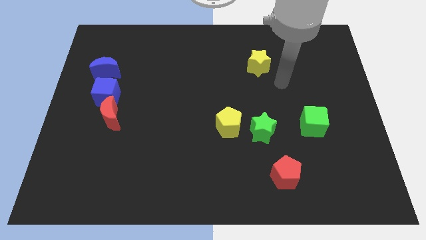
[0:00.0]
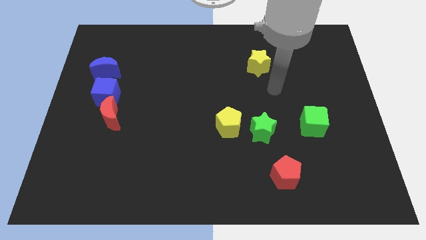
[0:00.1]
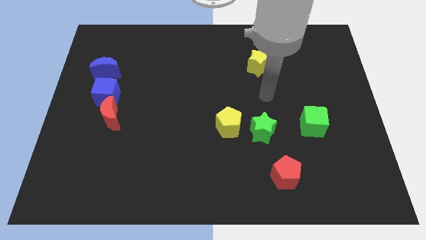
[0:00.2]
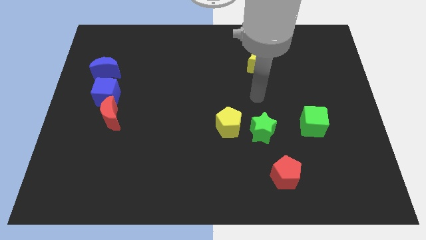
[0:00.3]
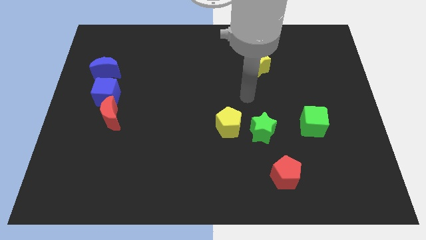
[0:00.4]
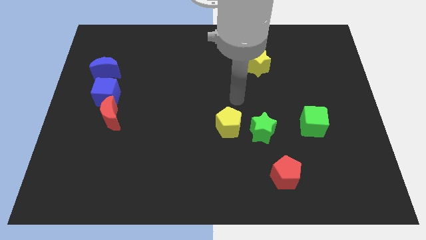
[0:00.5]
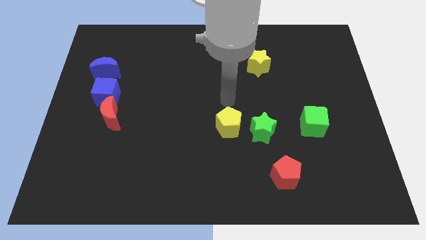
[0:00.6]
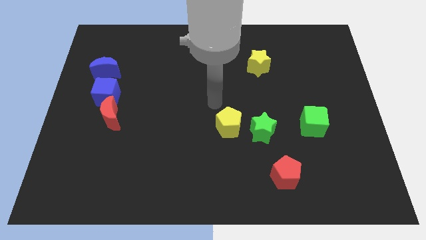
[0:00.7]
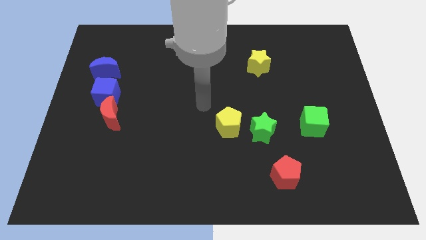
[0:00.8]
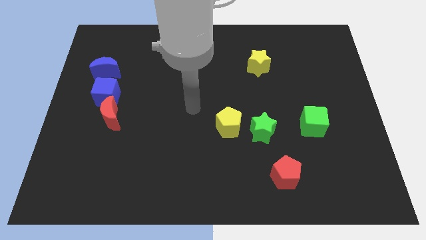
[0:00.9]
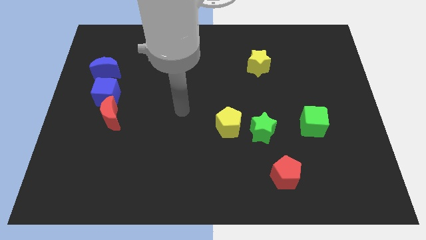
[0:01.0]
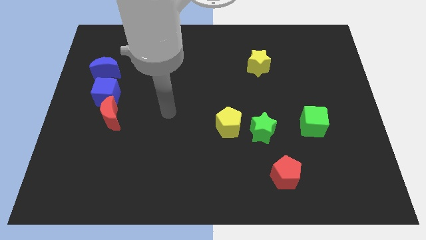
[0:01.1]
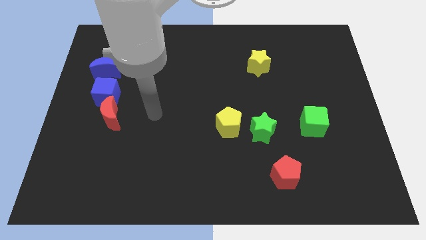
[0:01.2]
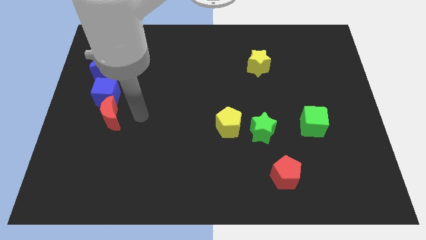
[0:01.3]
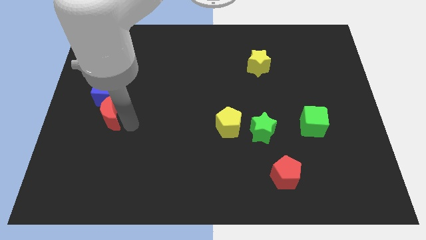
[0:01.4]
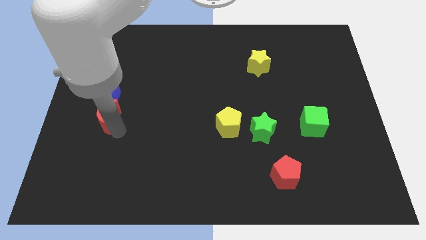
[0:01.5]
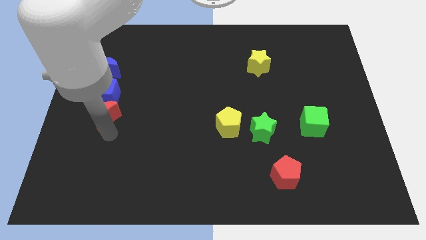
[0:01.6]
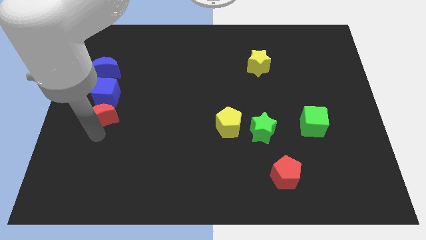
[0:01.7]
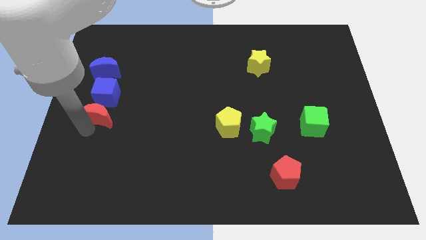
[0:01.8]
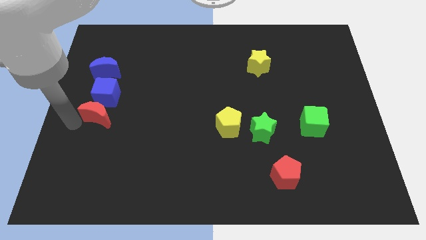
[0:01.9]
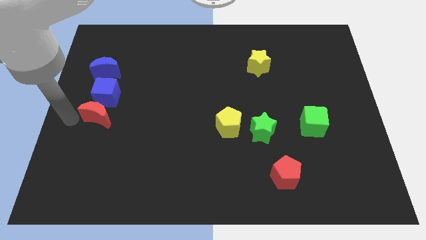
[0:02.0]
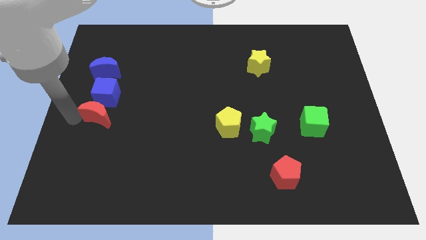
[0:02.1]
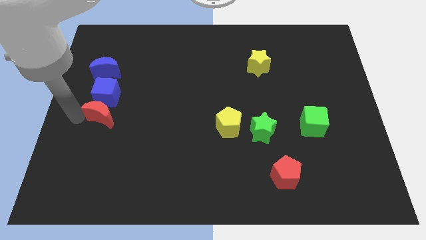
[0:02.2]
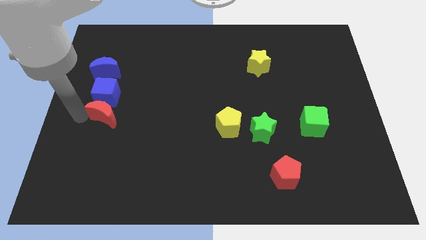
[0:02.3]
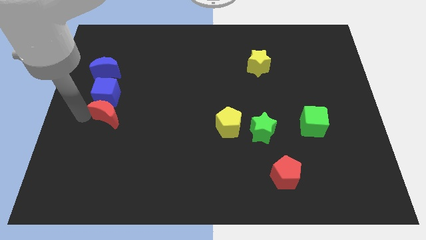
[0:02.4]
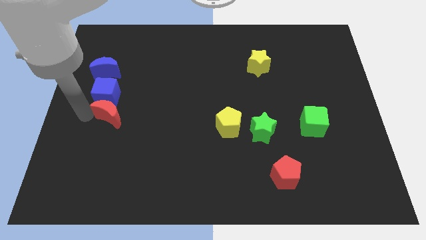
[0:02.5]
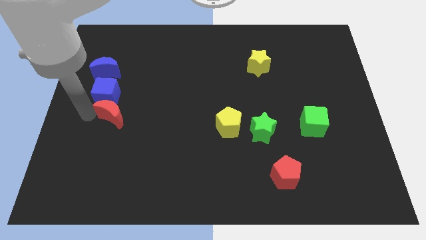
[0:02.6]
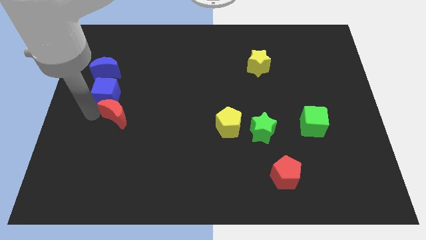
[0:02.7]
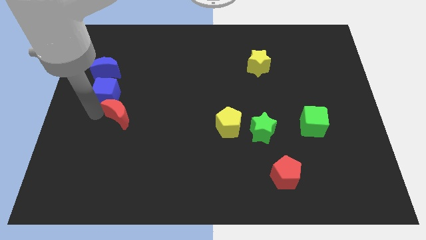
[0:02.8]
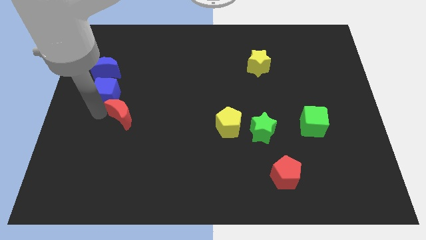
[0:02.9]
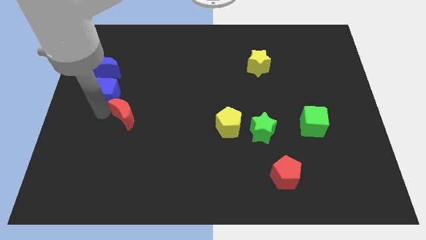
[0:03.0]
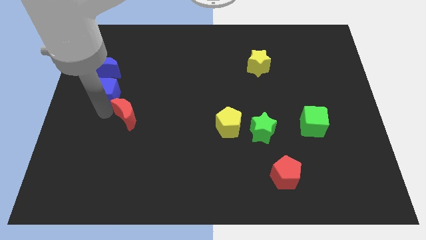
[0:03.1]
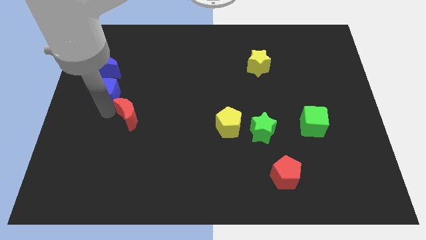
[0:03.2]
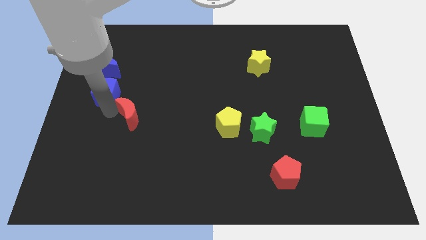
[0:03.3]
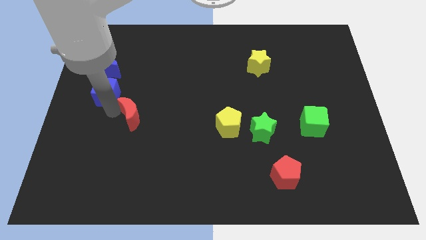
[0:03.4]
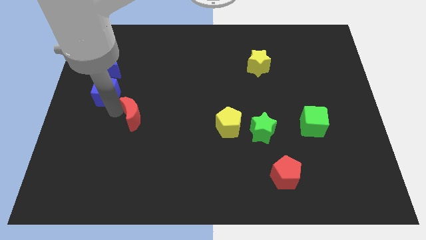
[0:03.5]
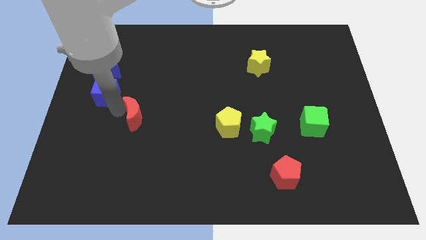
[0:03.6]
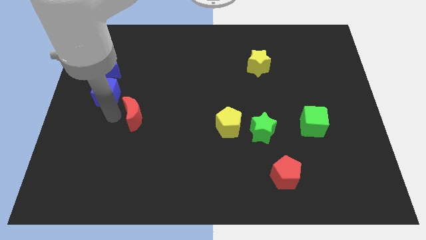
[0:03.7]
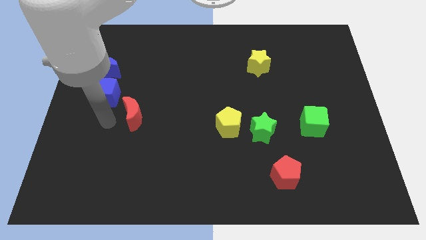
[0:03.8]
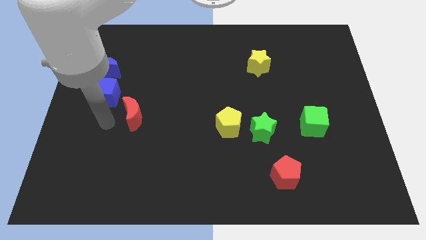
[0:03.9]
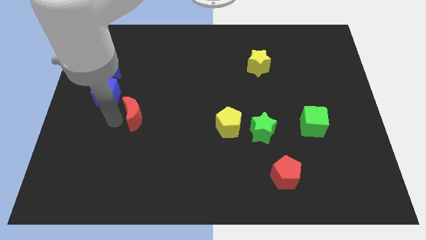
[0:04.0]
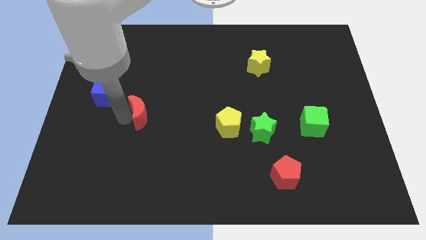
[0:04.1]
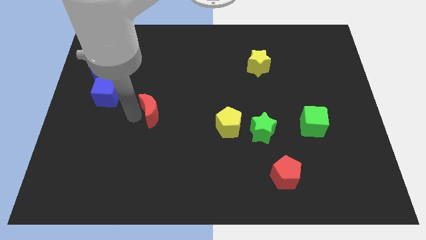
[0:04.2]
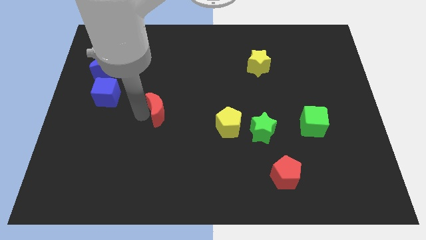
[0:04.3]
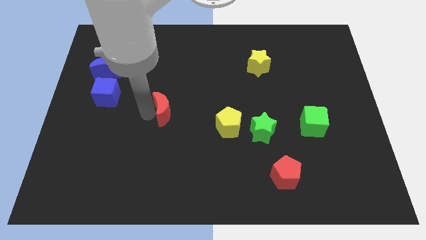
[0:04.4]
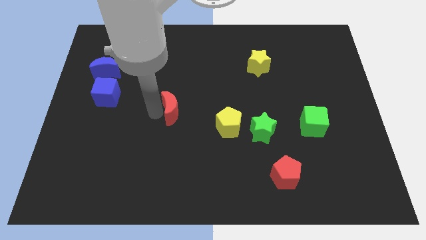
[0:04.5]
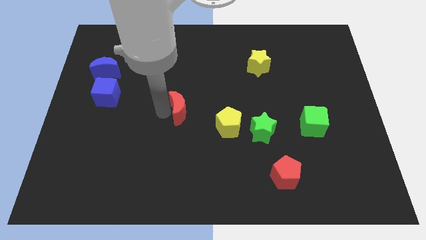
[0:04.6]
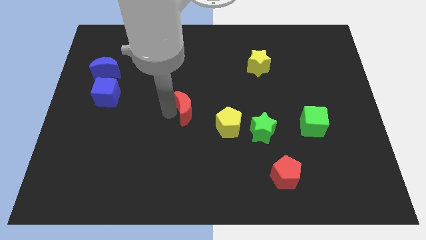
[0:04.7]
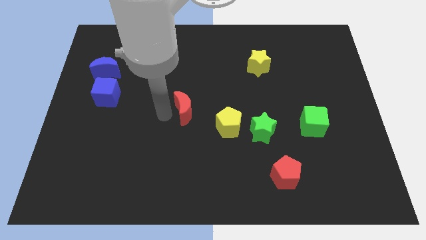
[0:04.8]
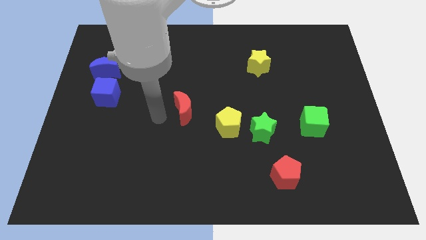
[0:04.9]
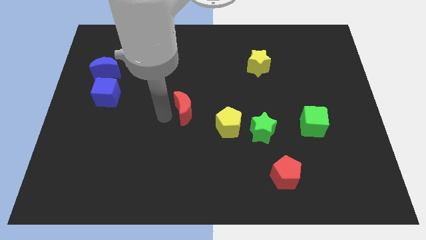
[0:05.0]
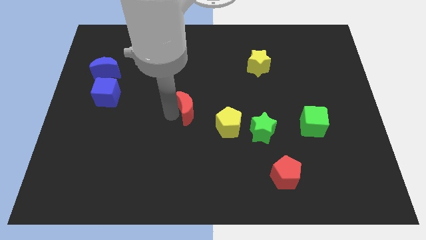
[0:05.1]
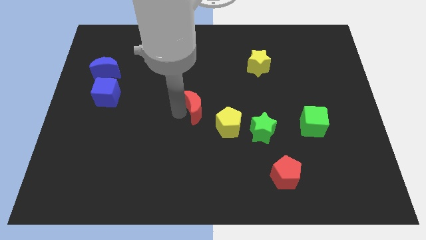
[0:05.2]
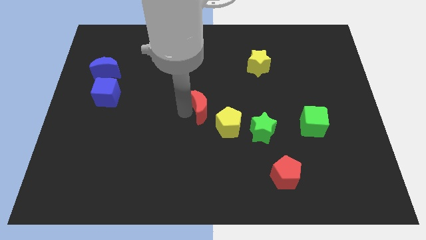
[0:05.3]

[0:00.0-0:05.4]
move the red moon to the right

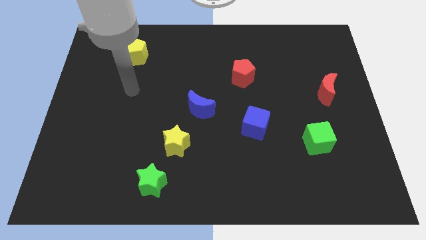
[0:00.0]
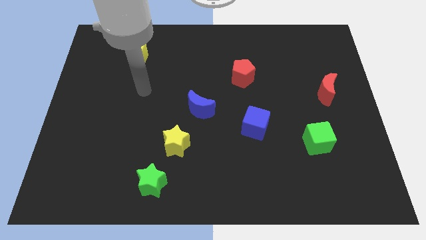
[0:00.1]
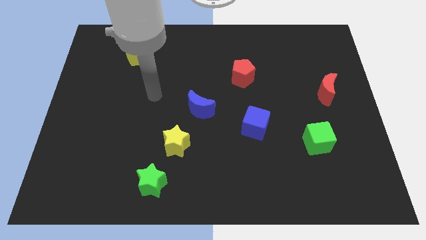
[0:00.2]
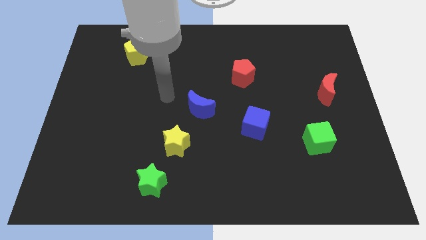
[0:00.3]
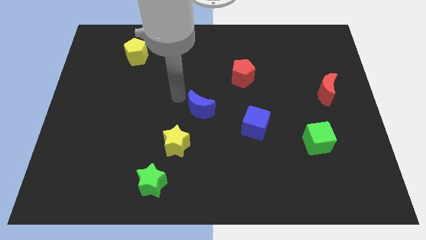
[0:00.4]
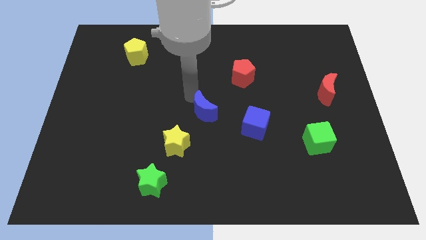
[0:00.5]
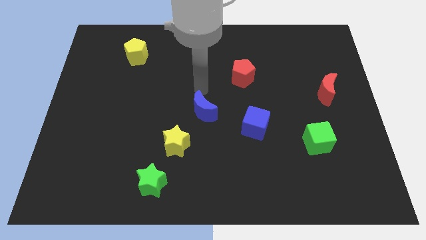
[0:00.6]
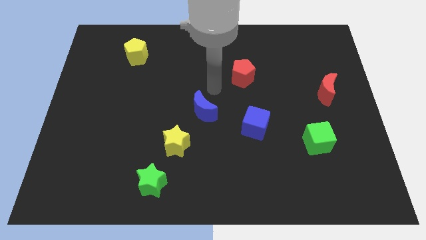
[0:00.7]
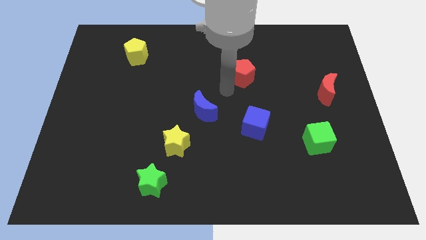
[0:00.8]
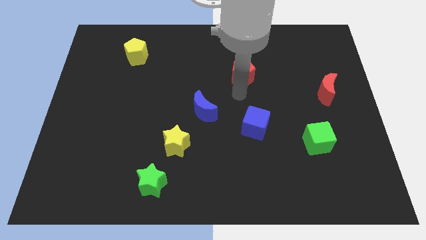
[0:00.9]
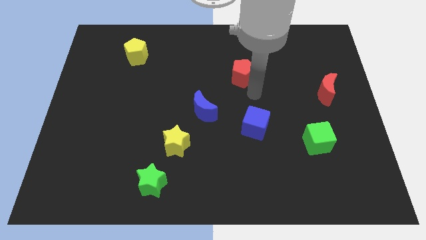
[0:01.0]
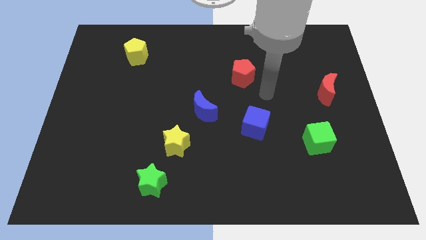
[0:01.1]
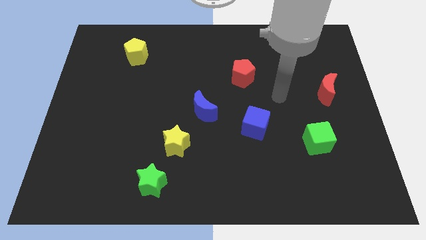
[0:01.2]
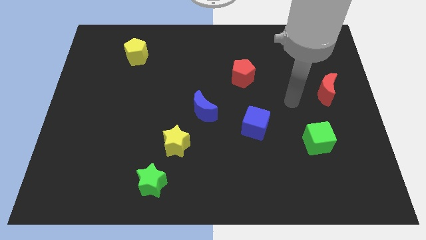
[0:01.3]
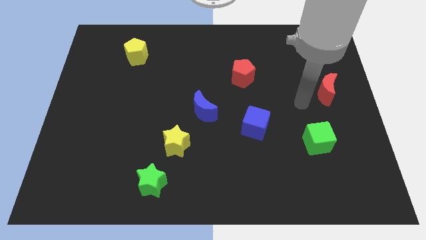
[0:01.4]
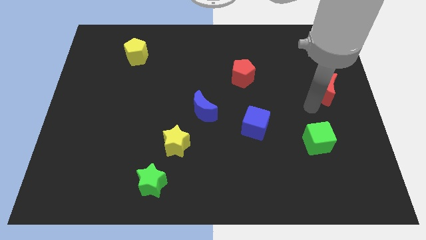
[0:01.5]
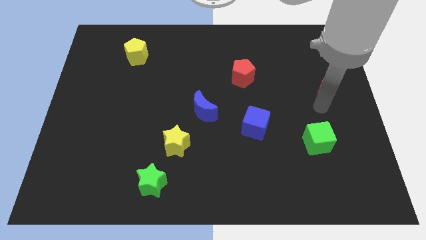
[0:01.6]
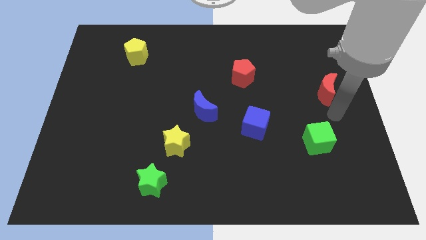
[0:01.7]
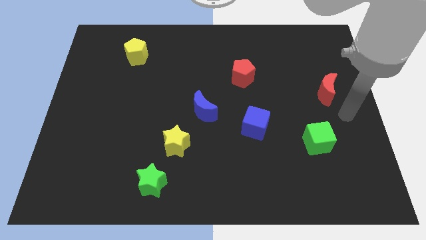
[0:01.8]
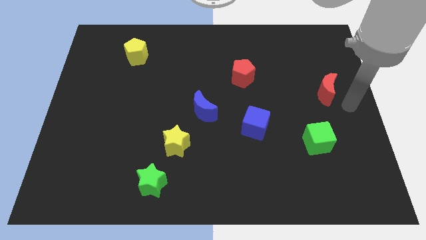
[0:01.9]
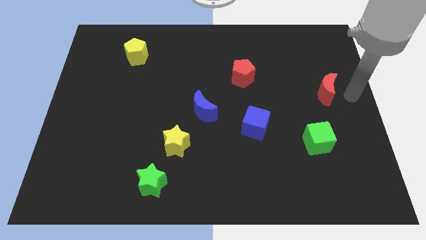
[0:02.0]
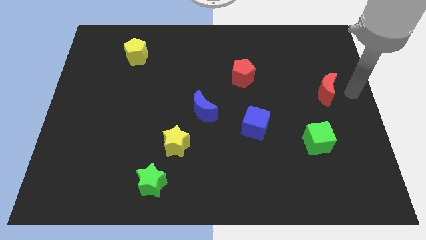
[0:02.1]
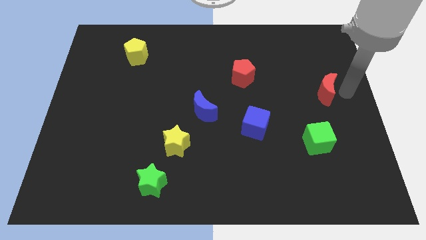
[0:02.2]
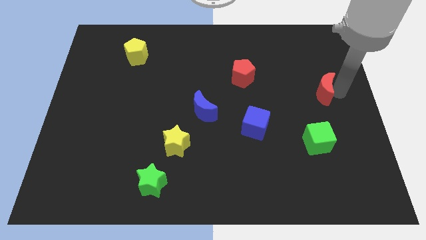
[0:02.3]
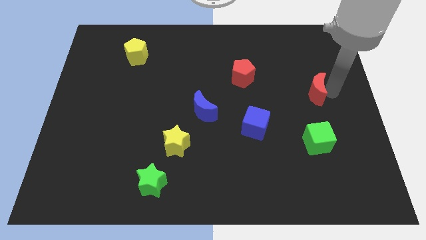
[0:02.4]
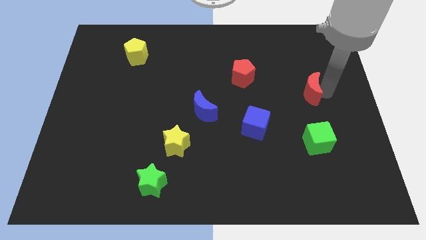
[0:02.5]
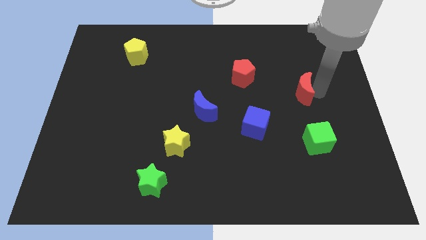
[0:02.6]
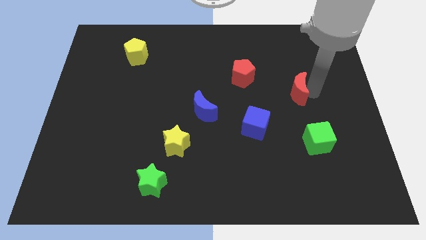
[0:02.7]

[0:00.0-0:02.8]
slide the red moon to the left a little
